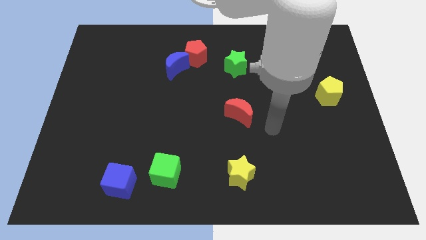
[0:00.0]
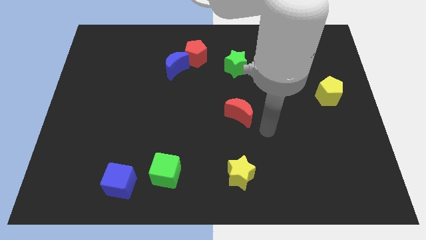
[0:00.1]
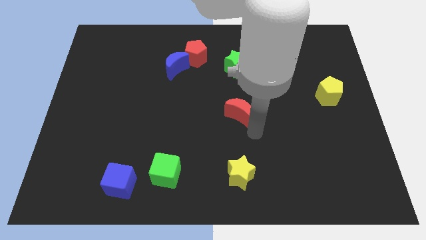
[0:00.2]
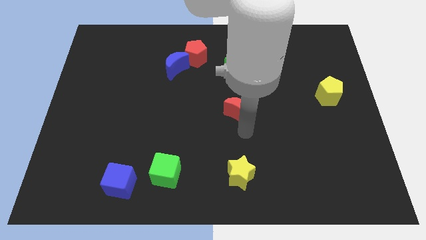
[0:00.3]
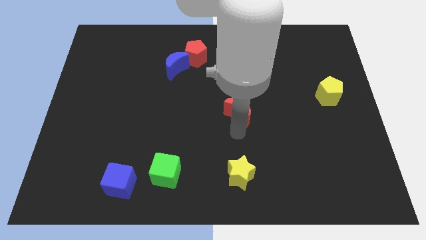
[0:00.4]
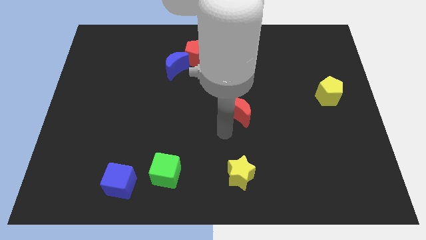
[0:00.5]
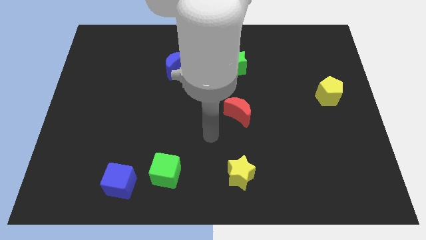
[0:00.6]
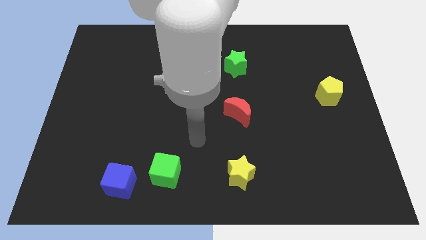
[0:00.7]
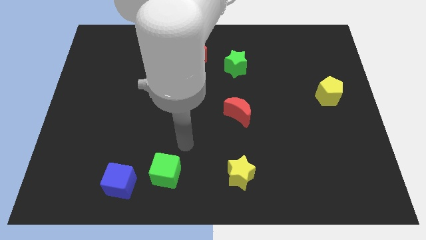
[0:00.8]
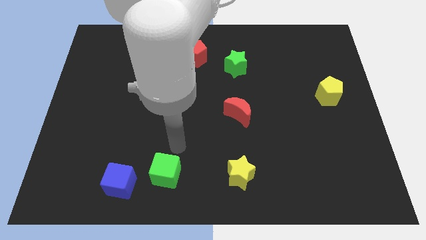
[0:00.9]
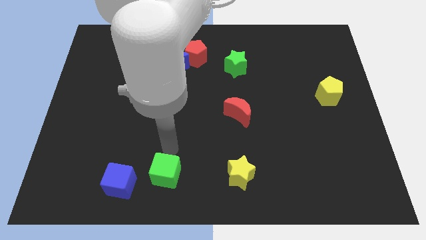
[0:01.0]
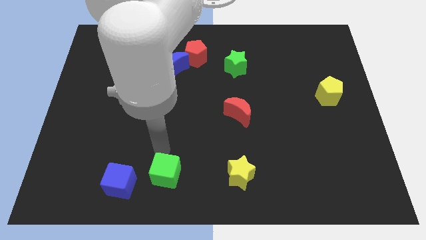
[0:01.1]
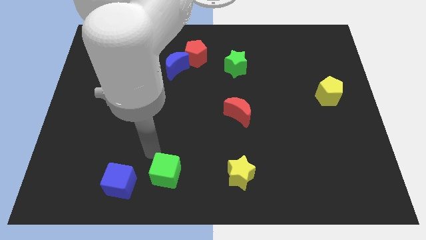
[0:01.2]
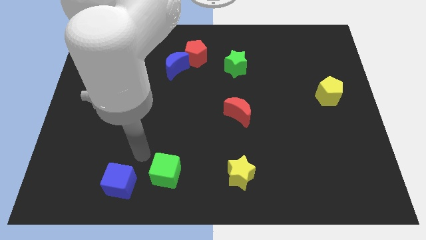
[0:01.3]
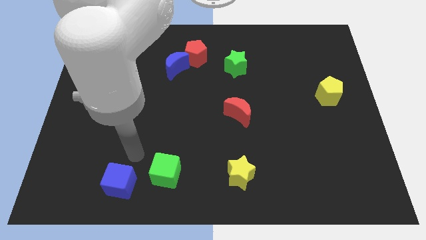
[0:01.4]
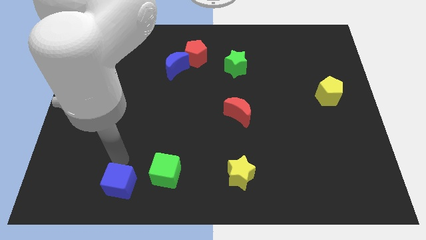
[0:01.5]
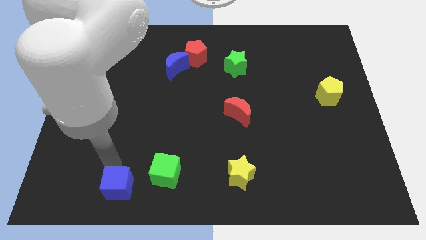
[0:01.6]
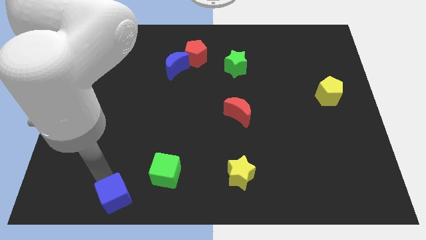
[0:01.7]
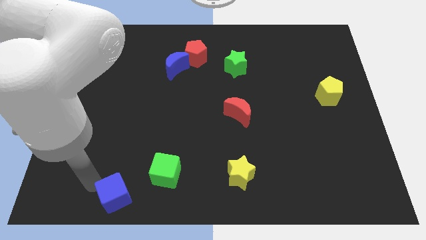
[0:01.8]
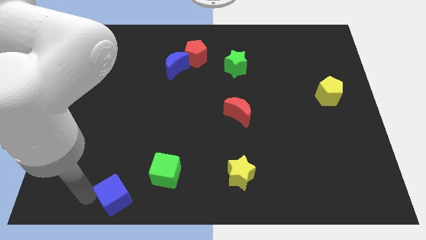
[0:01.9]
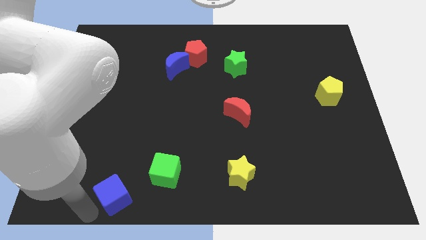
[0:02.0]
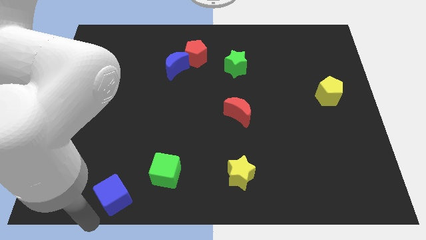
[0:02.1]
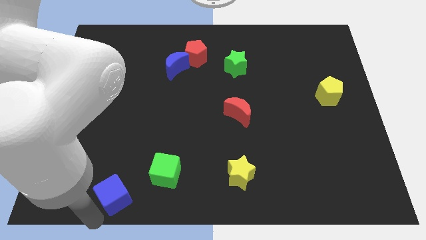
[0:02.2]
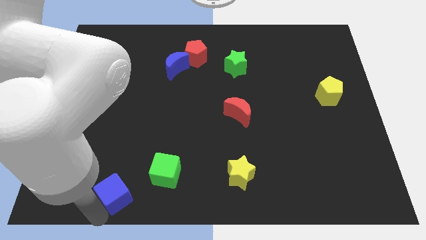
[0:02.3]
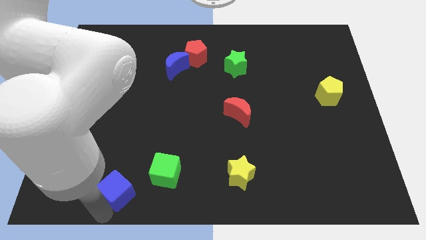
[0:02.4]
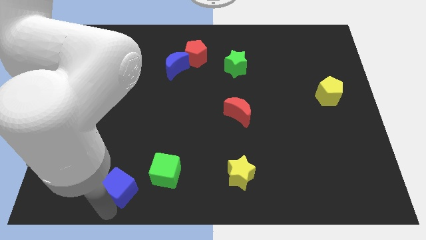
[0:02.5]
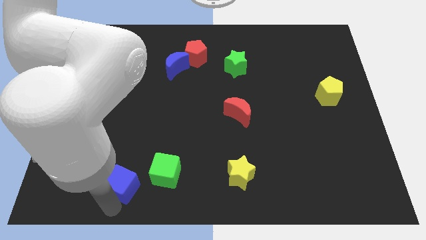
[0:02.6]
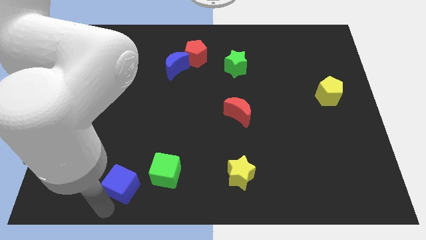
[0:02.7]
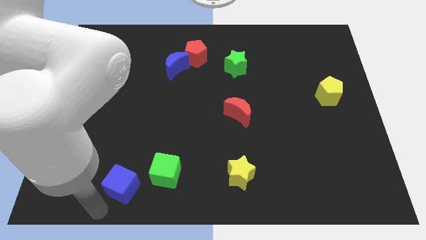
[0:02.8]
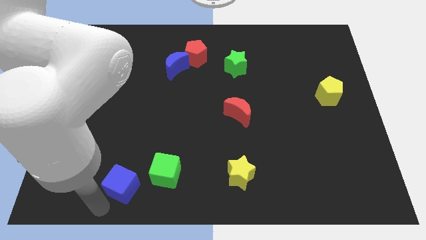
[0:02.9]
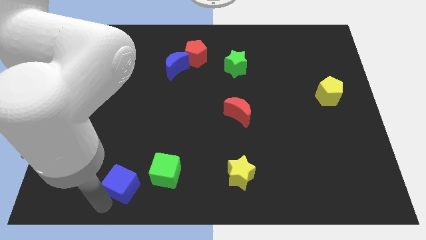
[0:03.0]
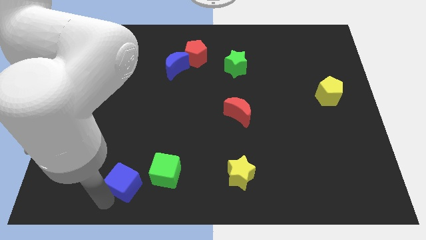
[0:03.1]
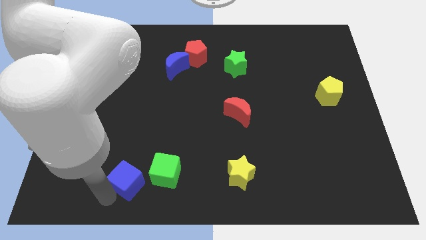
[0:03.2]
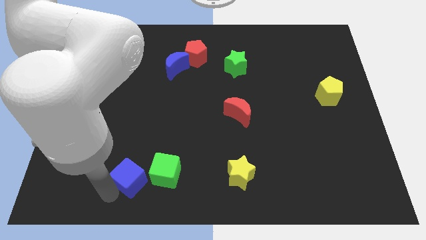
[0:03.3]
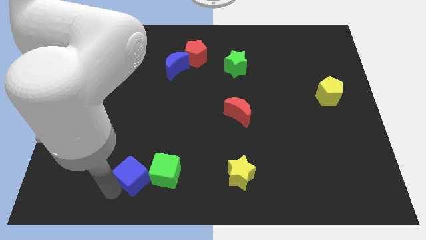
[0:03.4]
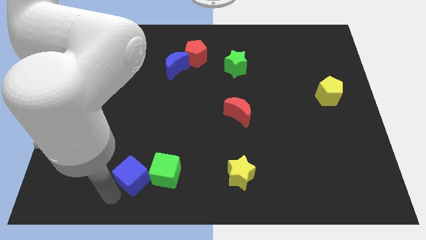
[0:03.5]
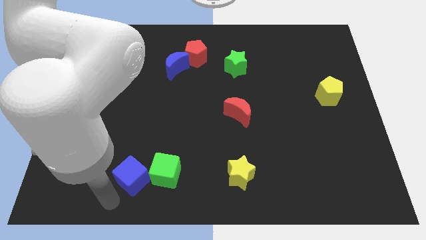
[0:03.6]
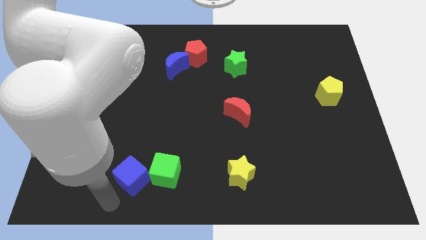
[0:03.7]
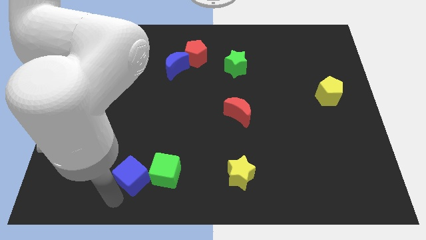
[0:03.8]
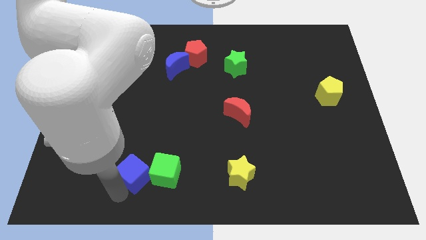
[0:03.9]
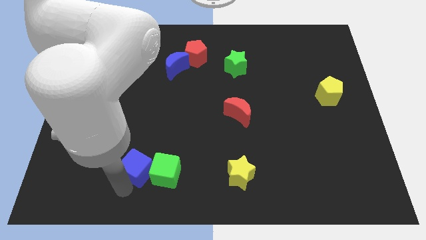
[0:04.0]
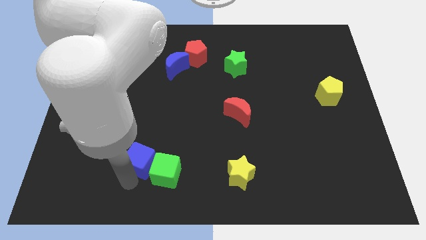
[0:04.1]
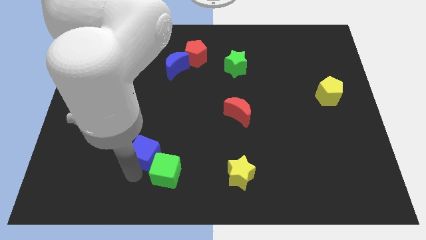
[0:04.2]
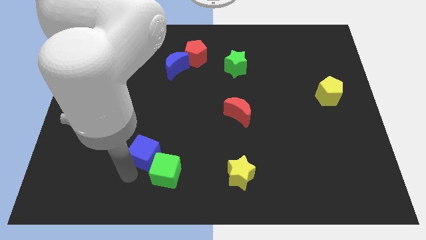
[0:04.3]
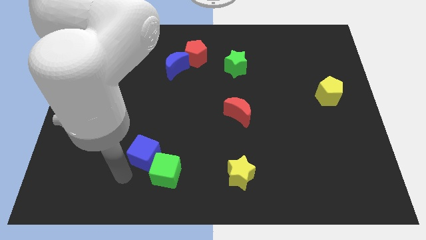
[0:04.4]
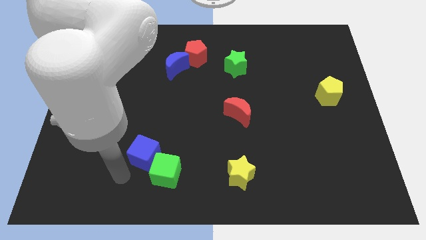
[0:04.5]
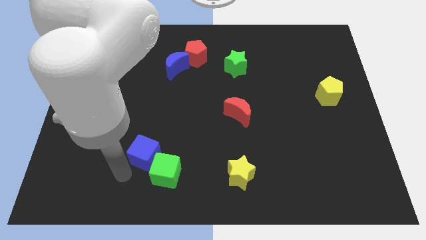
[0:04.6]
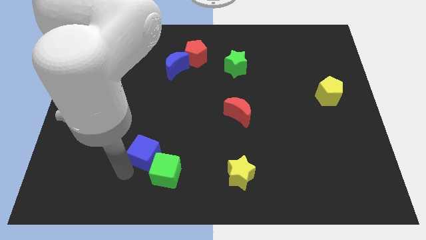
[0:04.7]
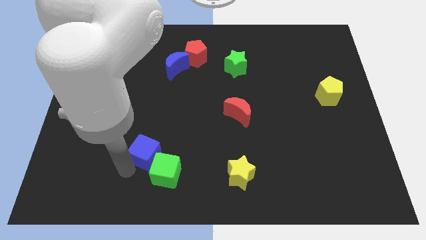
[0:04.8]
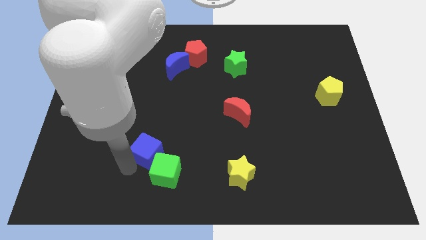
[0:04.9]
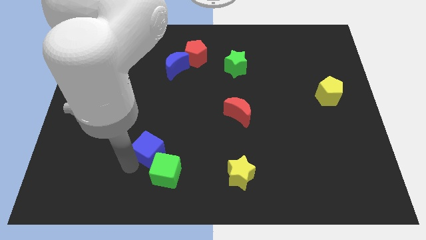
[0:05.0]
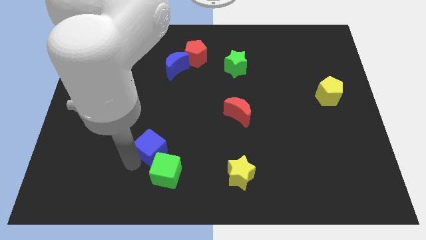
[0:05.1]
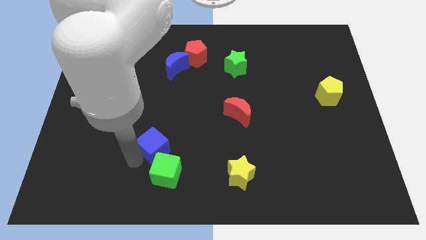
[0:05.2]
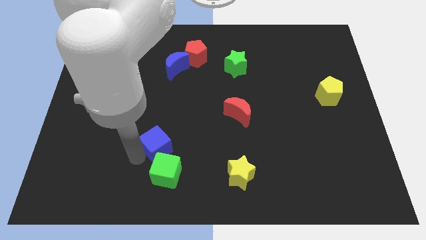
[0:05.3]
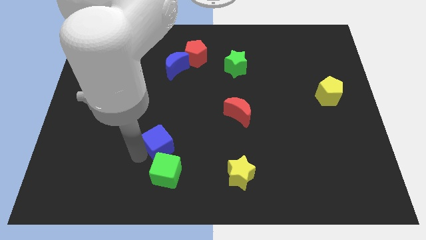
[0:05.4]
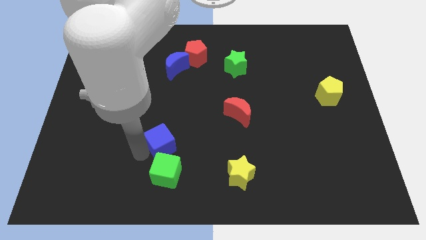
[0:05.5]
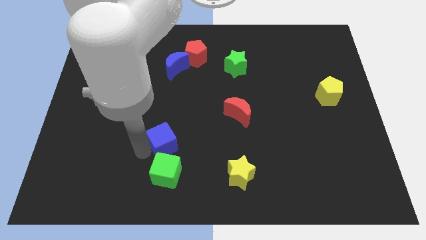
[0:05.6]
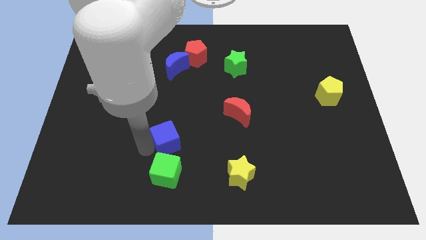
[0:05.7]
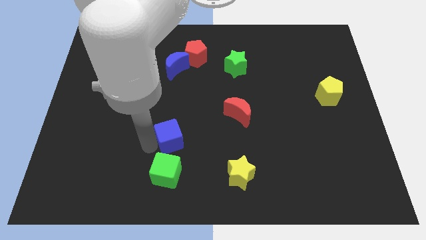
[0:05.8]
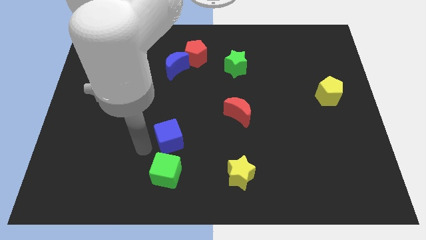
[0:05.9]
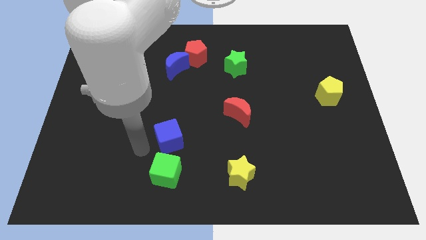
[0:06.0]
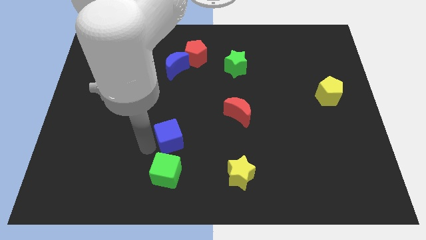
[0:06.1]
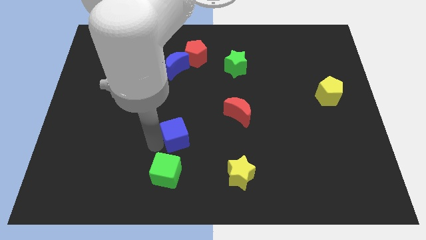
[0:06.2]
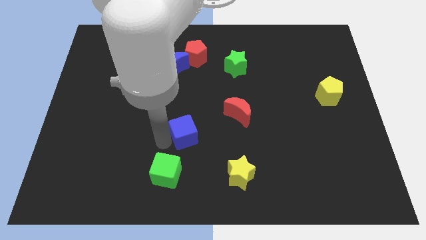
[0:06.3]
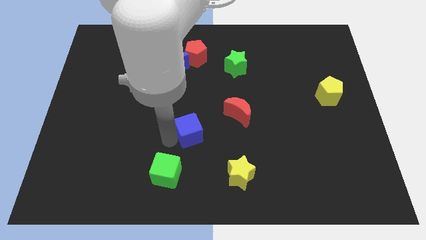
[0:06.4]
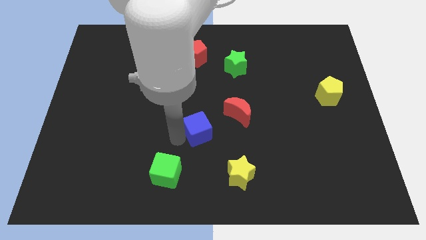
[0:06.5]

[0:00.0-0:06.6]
move the blue cube up and then right

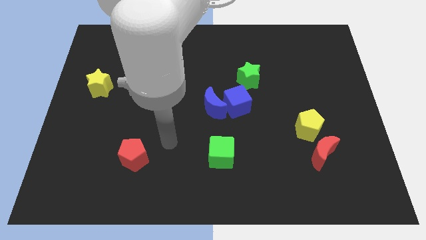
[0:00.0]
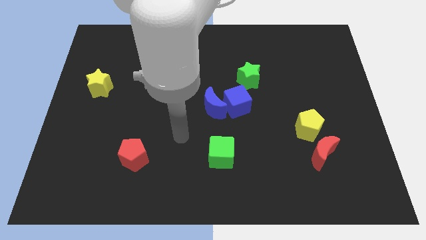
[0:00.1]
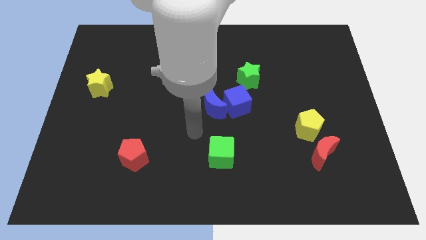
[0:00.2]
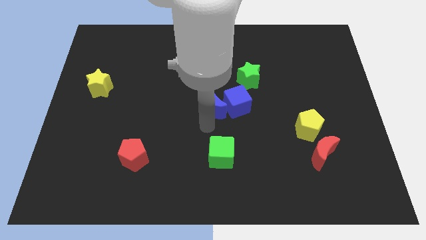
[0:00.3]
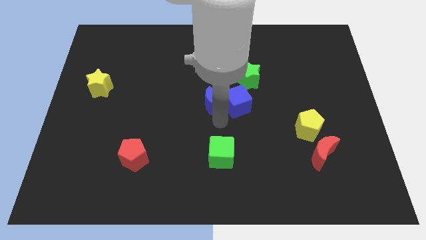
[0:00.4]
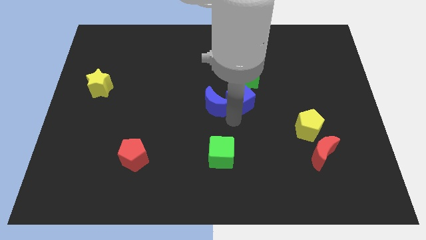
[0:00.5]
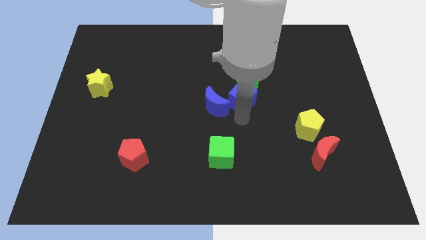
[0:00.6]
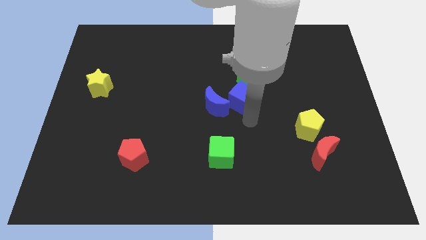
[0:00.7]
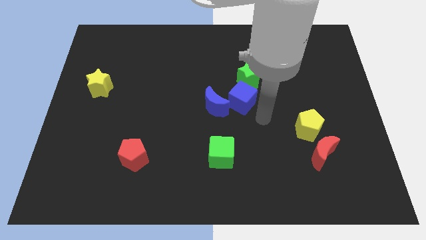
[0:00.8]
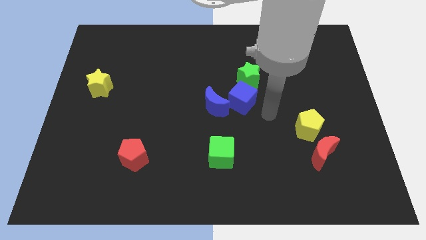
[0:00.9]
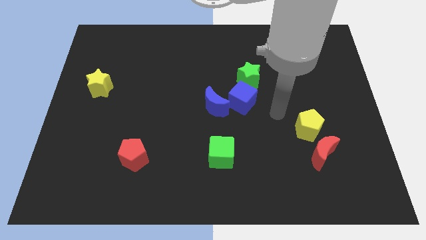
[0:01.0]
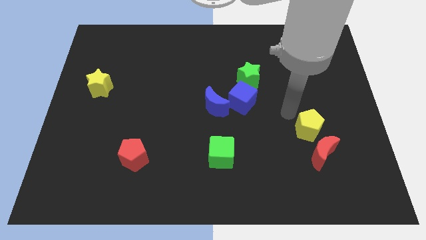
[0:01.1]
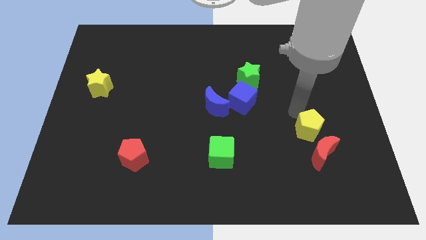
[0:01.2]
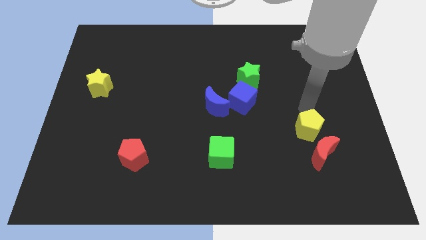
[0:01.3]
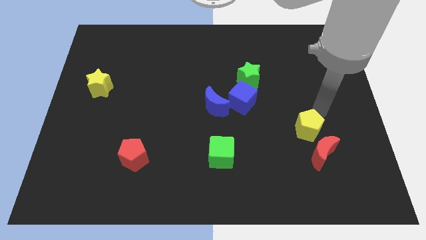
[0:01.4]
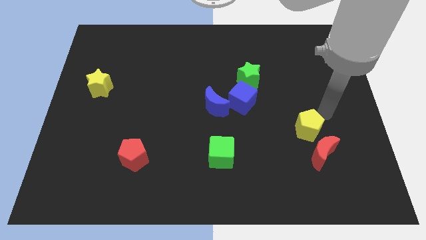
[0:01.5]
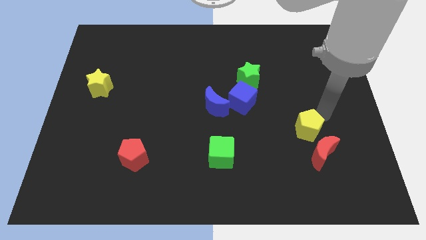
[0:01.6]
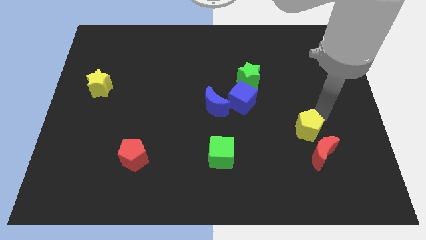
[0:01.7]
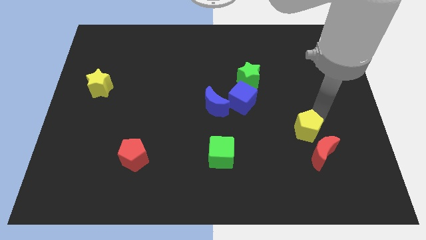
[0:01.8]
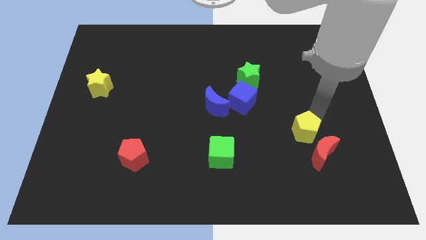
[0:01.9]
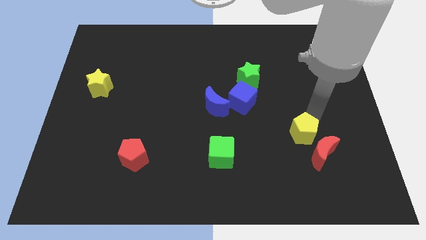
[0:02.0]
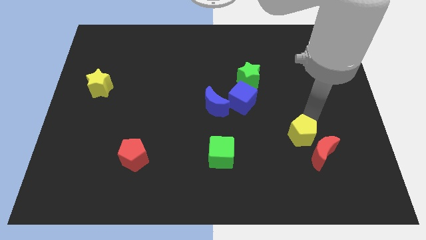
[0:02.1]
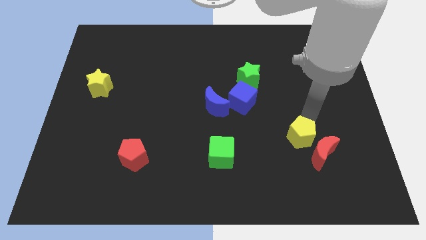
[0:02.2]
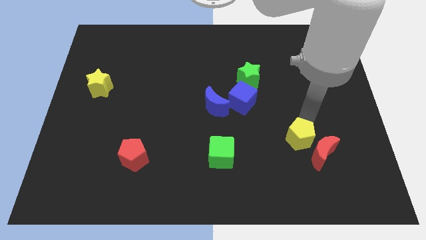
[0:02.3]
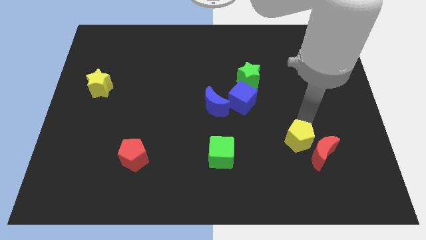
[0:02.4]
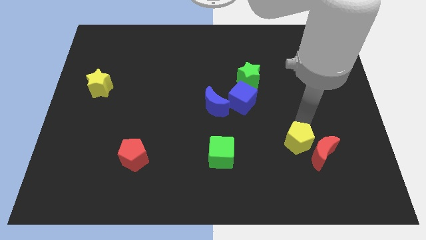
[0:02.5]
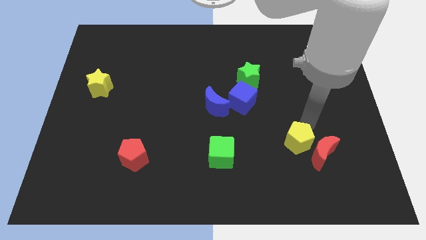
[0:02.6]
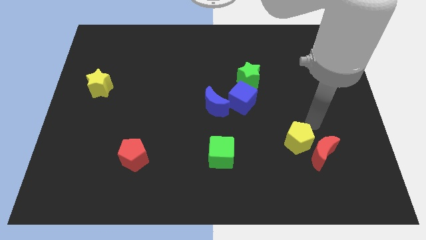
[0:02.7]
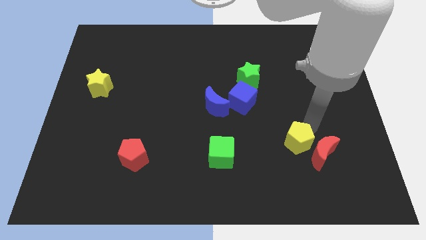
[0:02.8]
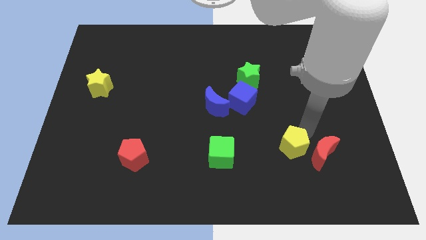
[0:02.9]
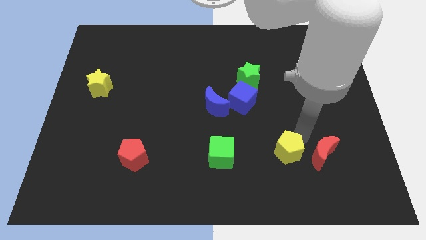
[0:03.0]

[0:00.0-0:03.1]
slightly slide the yellow pentagon downwards and to the left
